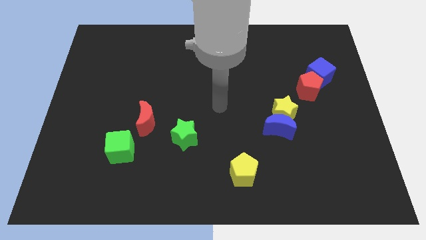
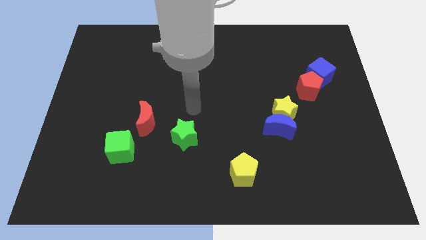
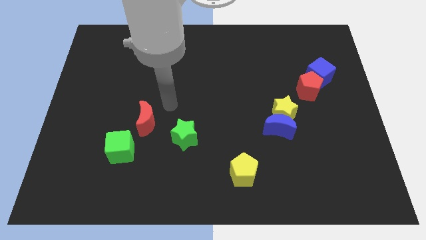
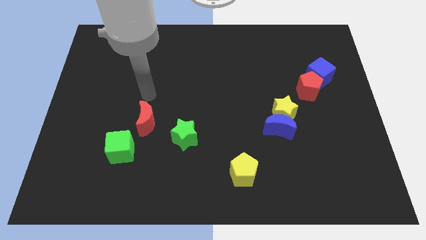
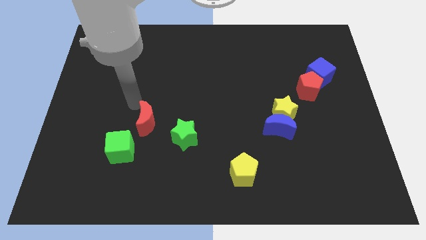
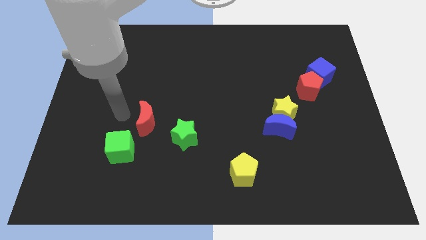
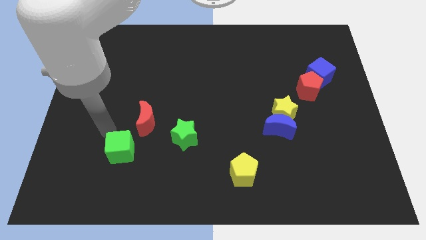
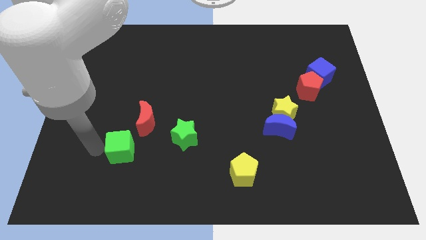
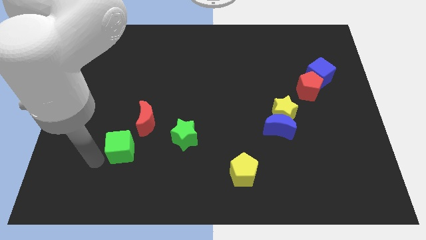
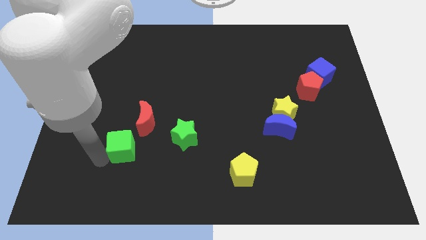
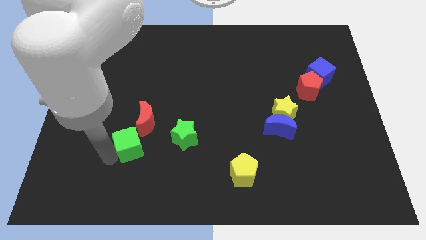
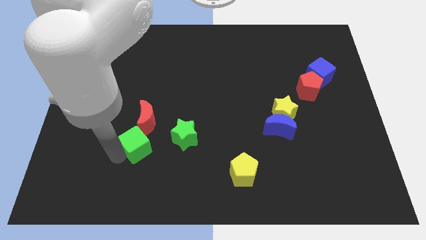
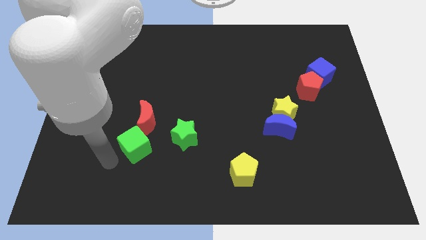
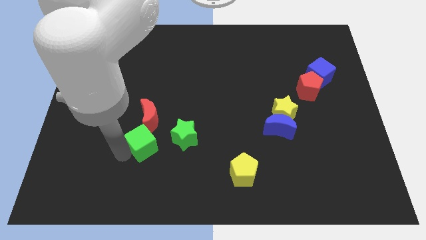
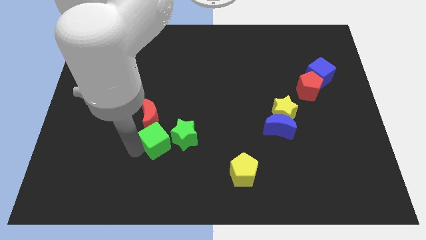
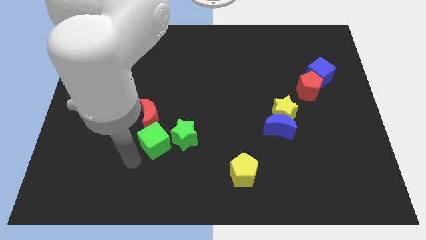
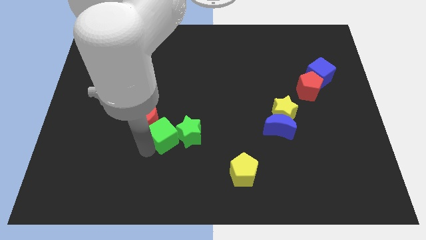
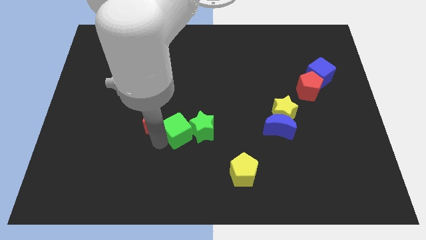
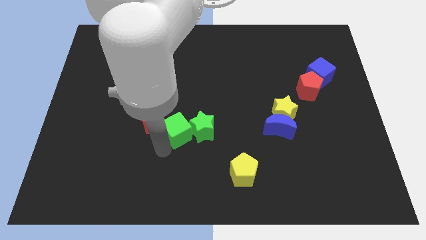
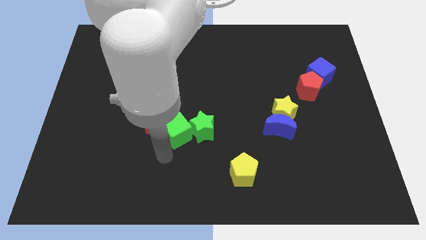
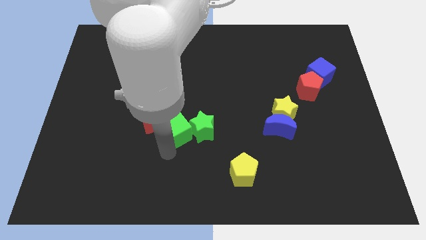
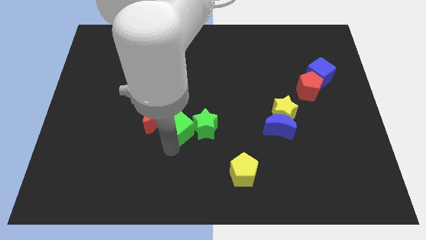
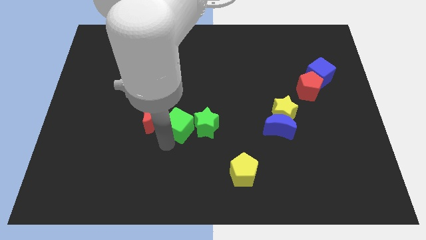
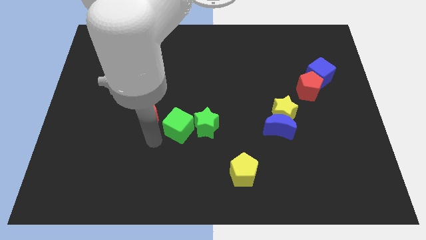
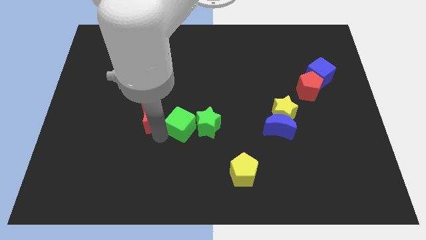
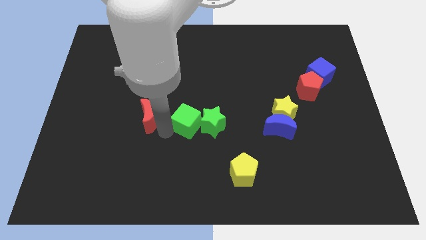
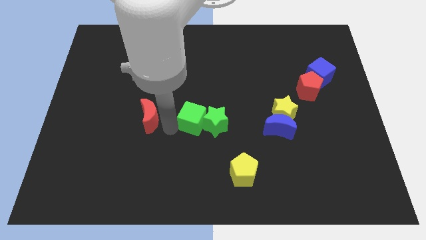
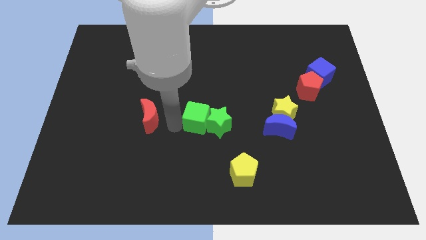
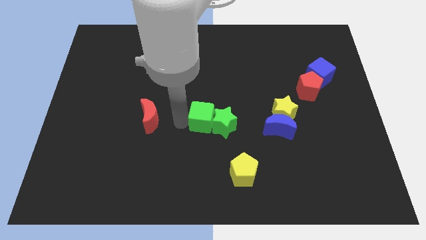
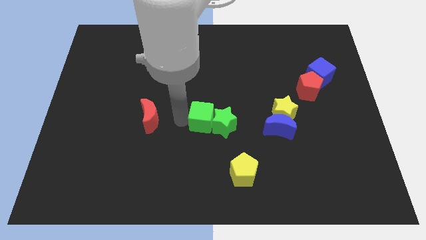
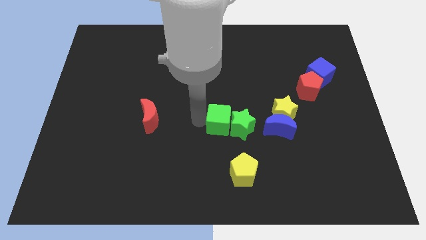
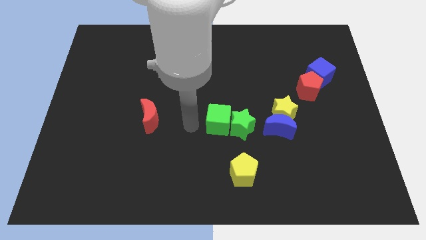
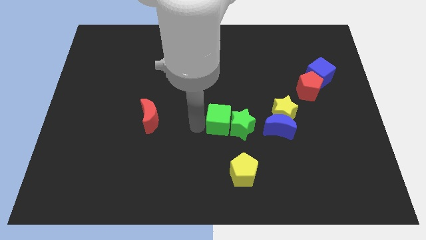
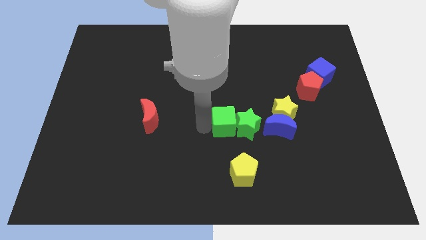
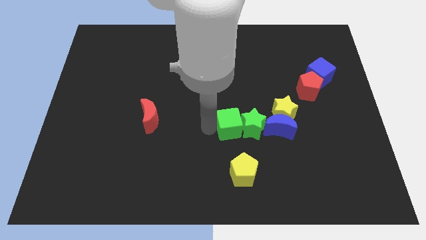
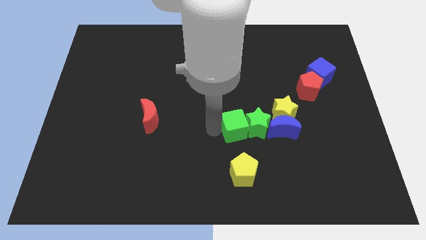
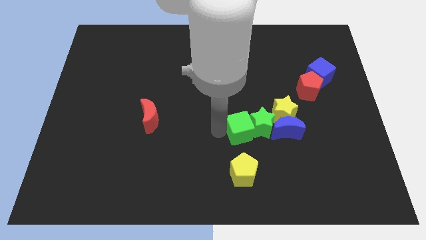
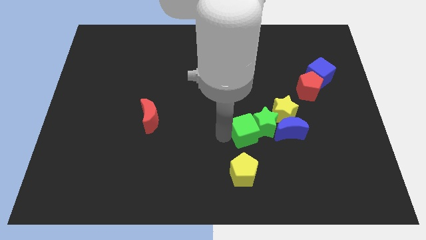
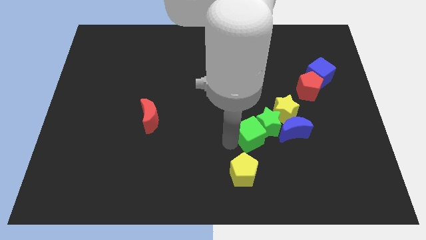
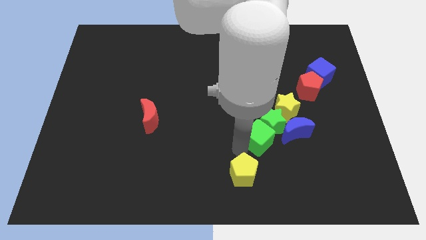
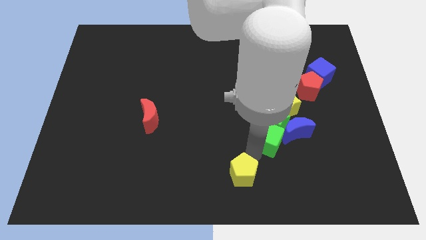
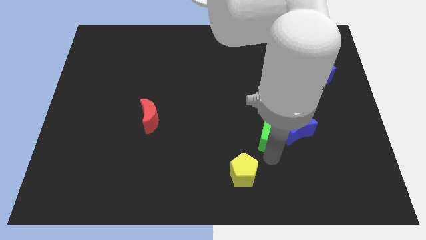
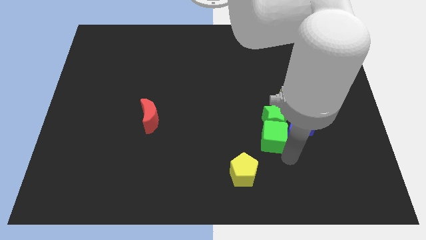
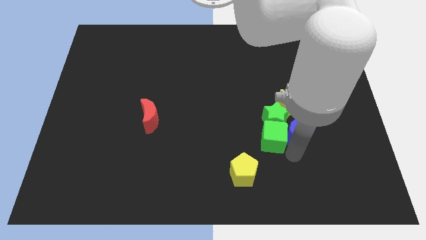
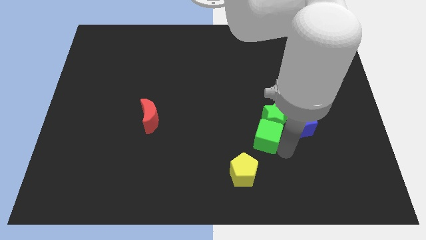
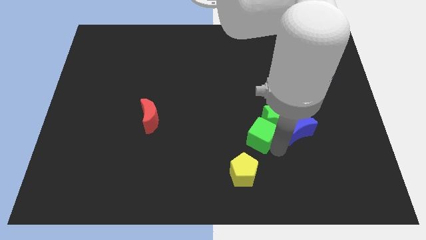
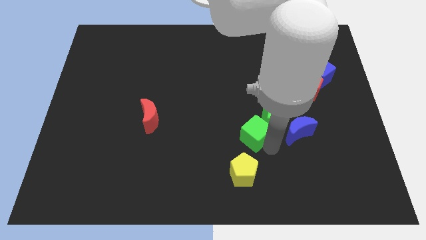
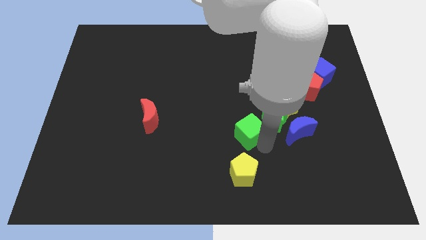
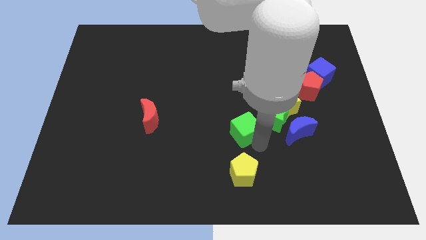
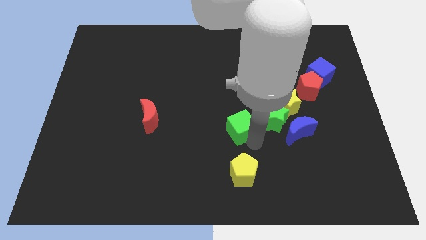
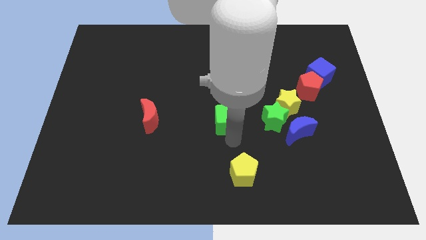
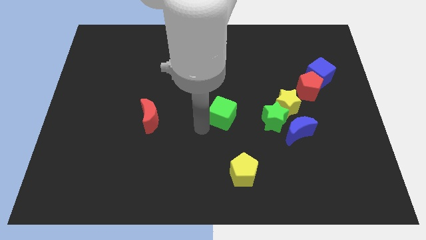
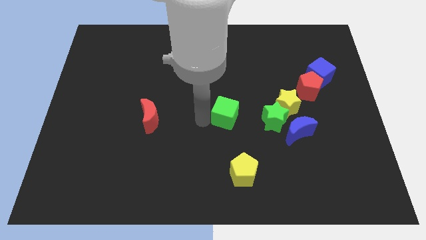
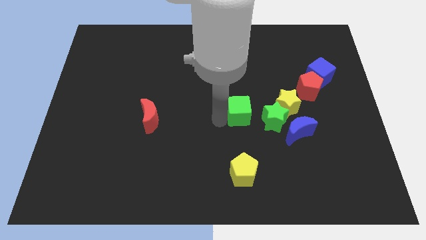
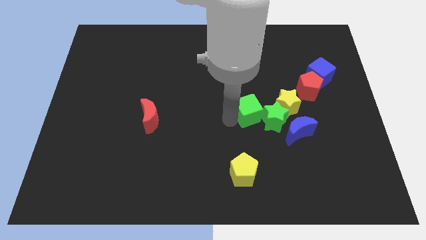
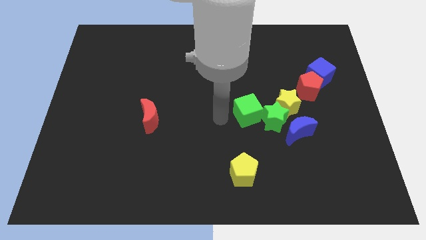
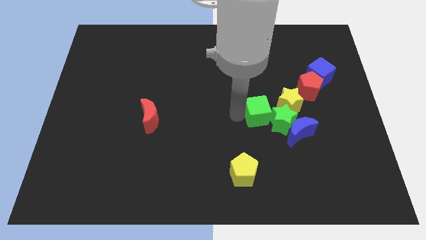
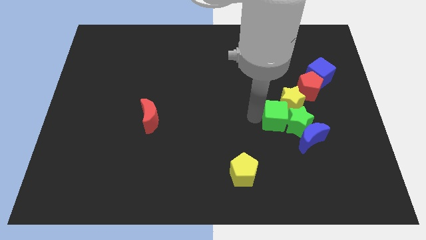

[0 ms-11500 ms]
move the green cube next to the yellow star

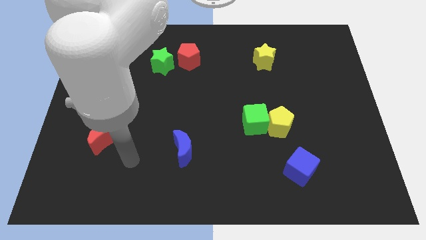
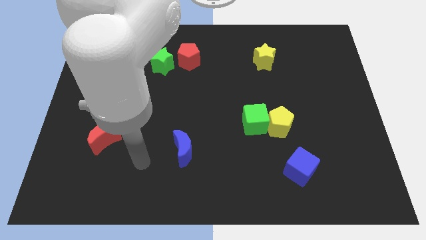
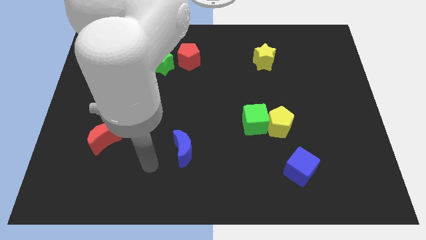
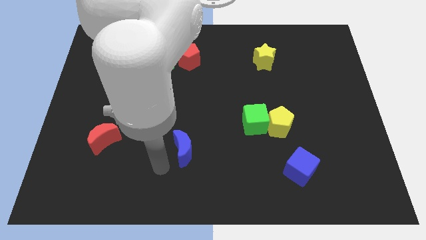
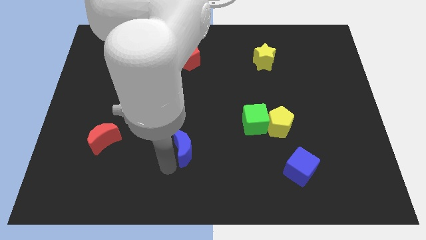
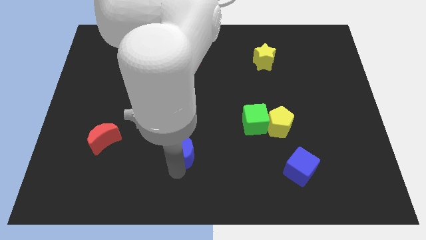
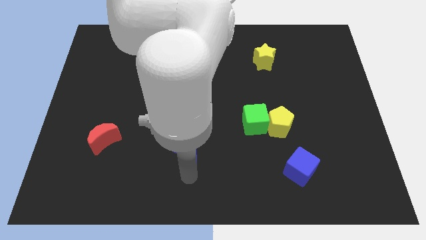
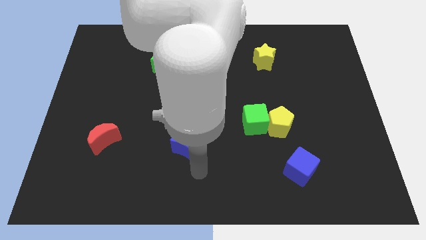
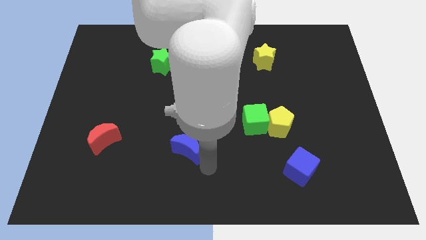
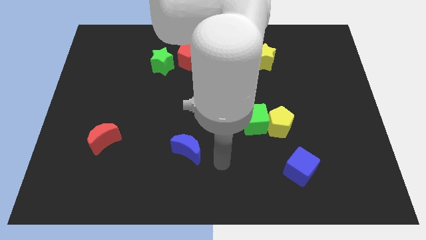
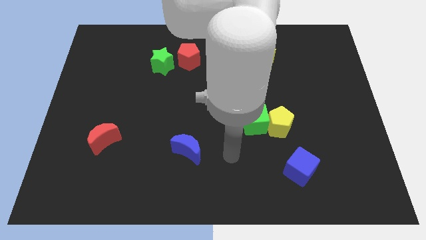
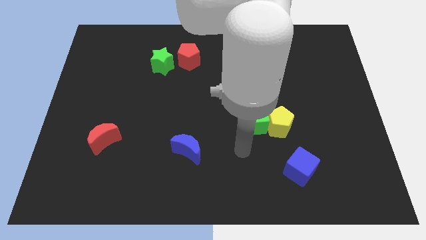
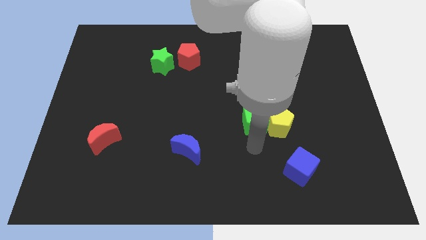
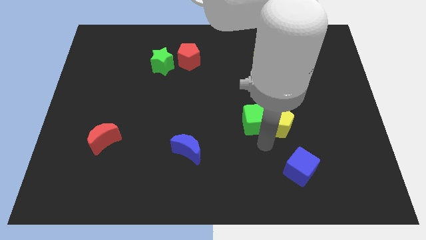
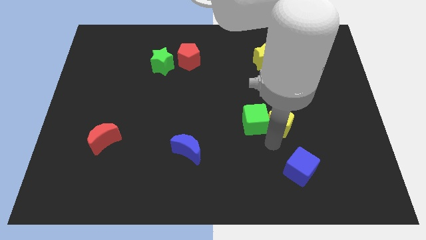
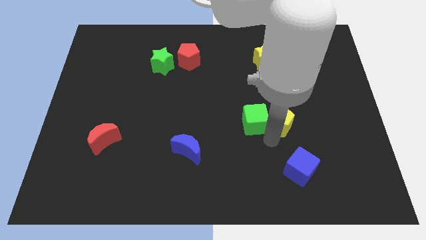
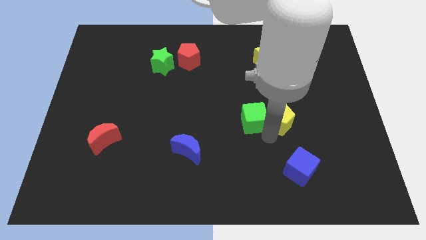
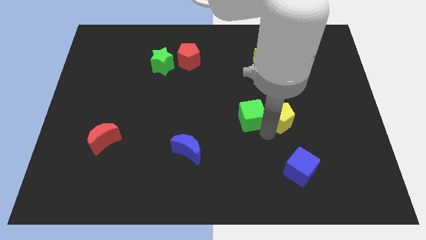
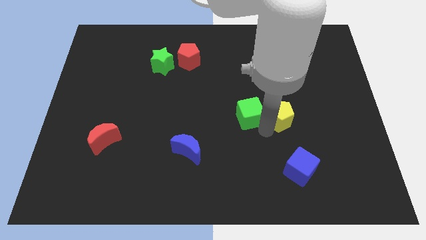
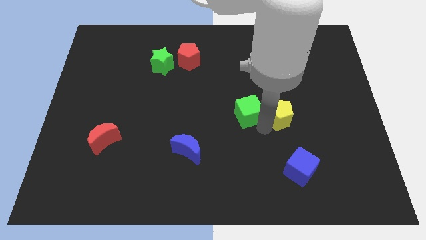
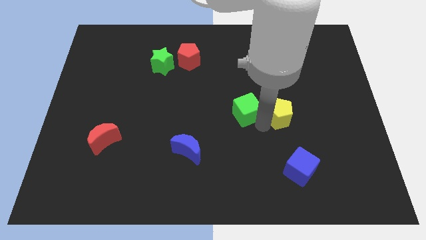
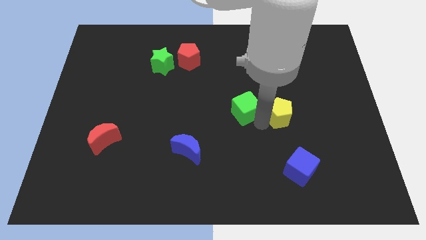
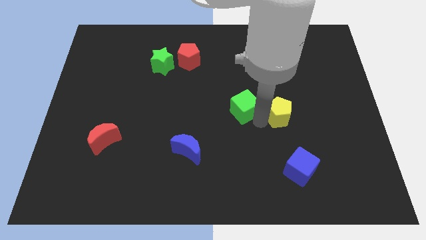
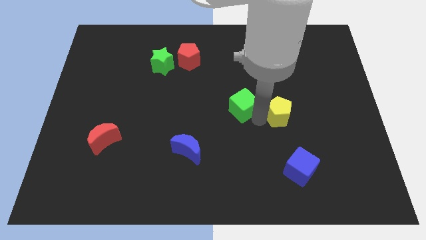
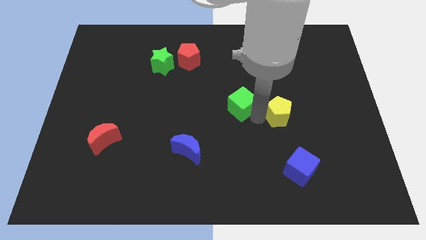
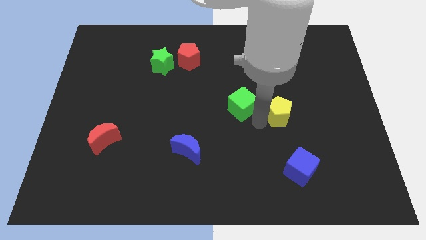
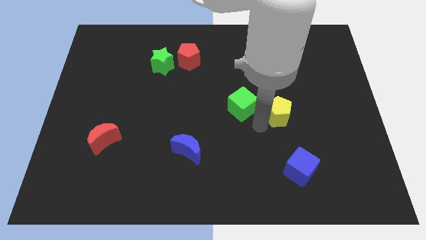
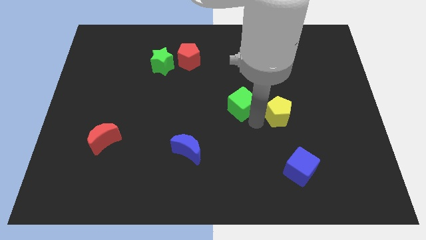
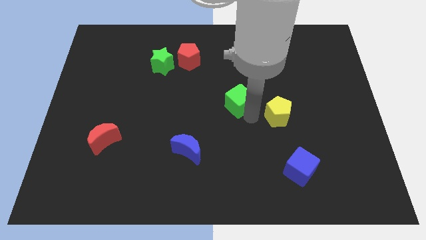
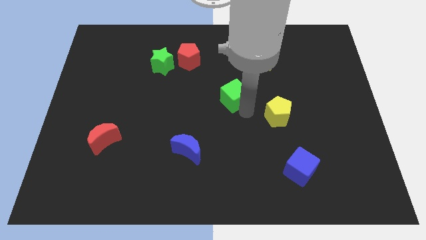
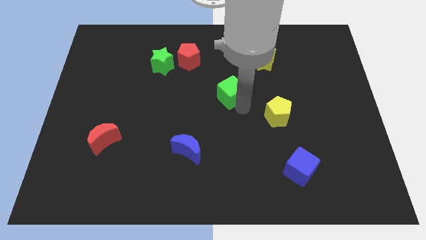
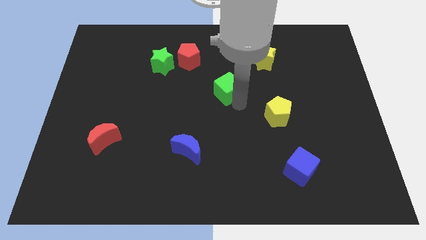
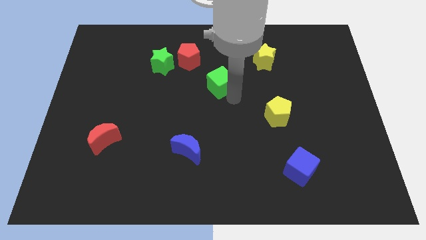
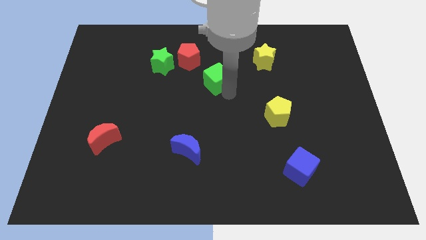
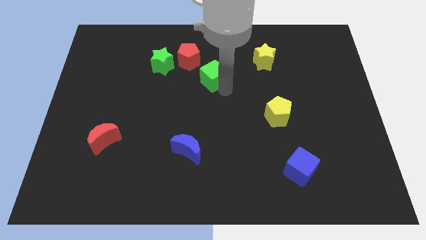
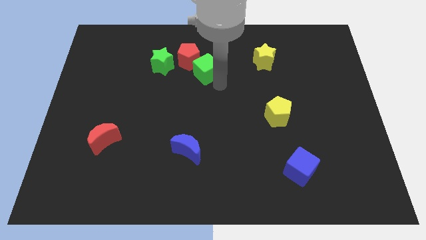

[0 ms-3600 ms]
move the green cube to the red pentagon
